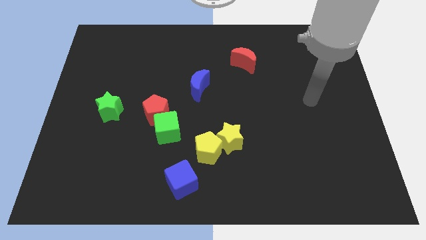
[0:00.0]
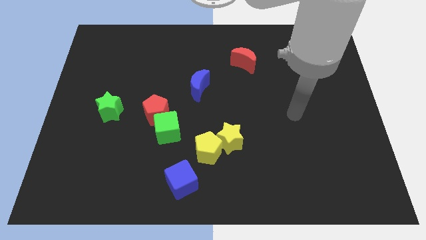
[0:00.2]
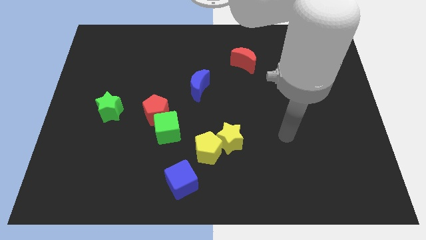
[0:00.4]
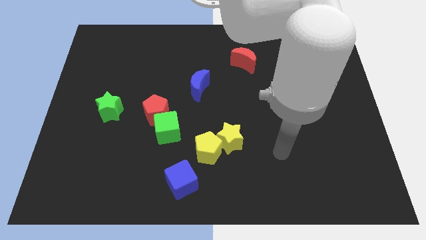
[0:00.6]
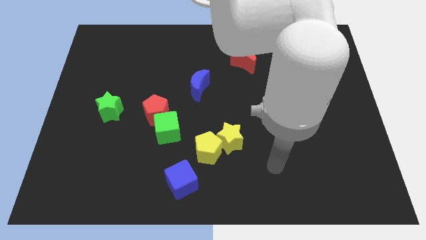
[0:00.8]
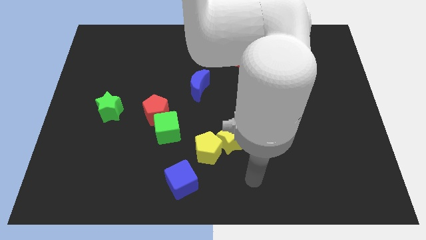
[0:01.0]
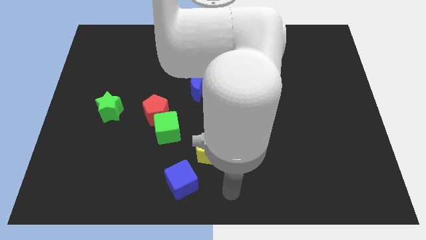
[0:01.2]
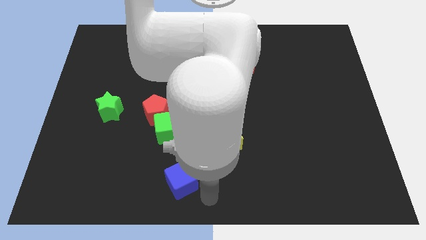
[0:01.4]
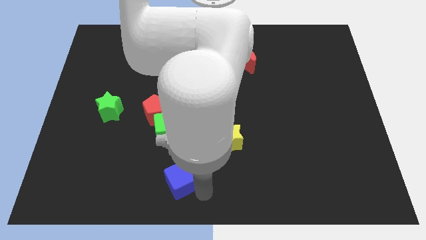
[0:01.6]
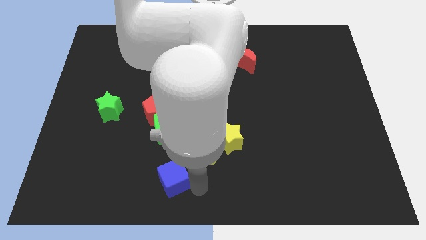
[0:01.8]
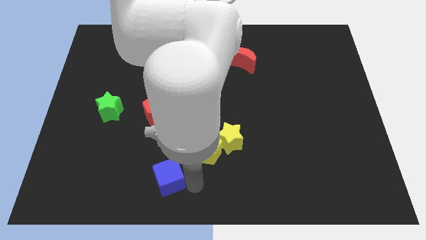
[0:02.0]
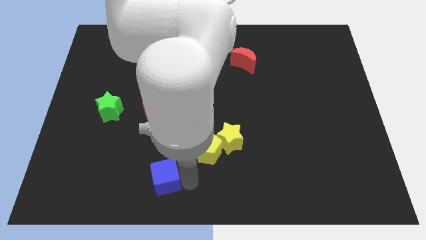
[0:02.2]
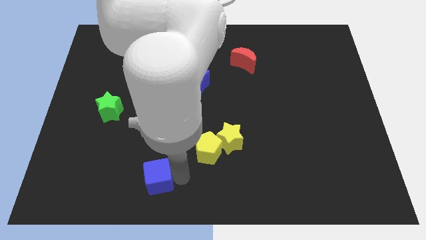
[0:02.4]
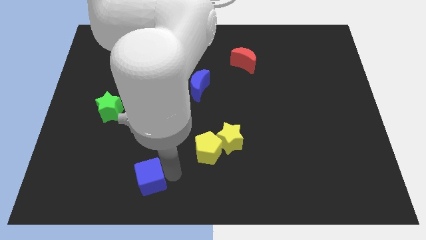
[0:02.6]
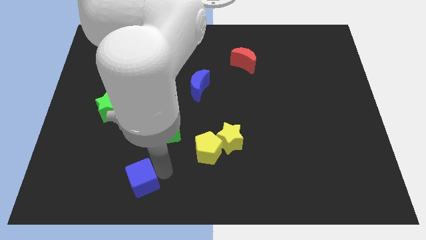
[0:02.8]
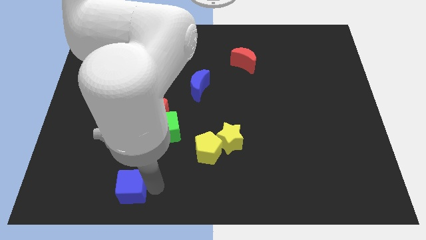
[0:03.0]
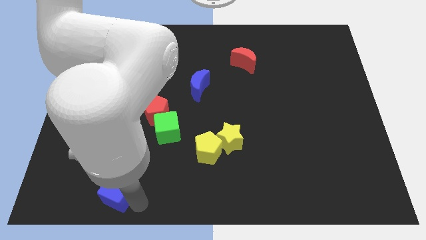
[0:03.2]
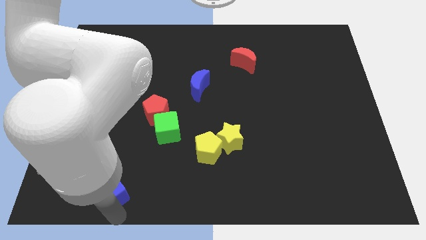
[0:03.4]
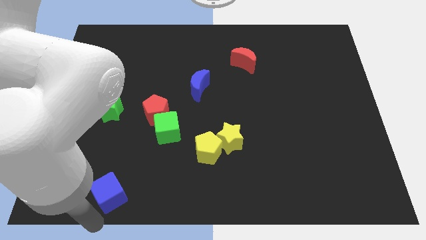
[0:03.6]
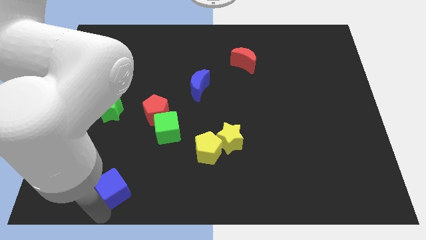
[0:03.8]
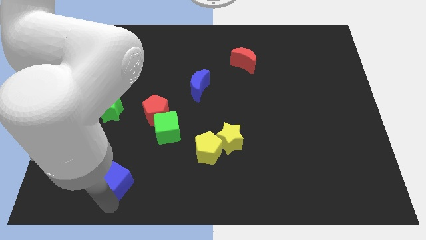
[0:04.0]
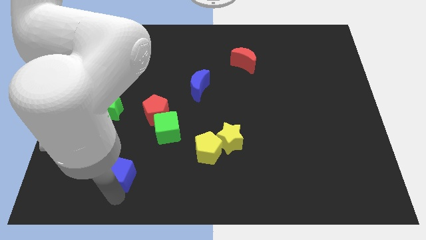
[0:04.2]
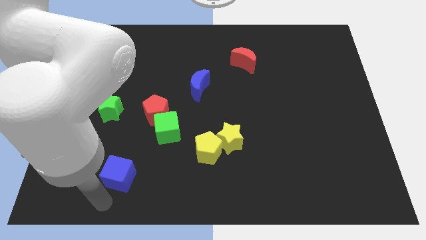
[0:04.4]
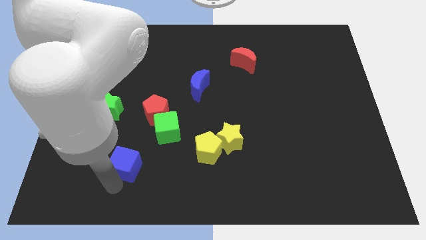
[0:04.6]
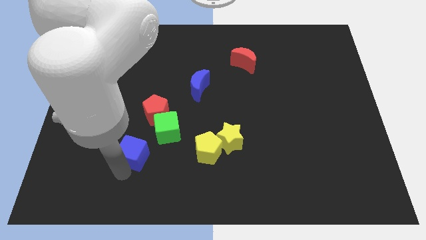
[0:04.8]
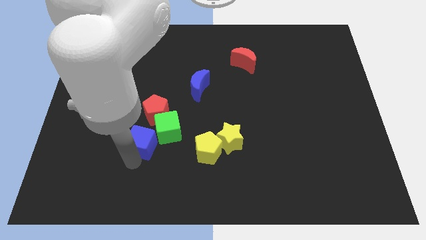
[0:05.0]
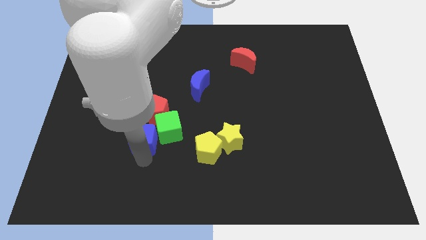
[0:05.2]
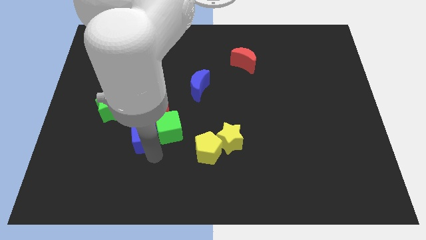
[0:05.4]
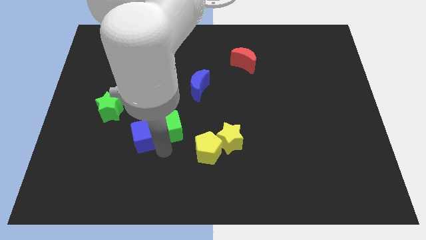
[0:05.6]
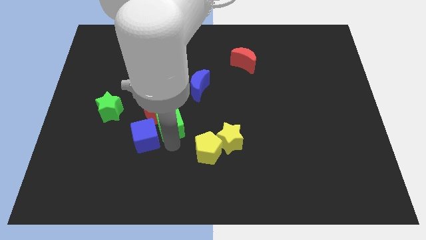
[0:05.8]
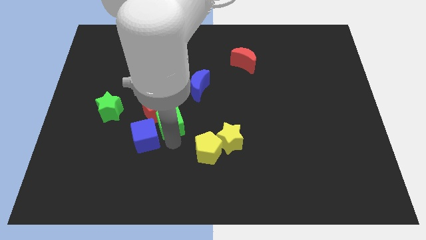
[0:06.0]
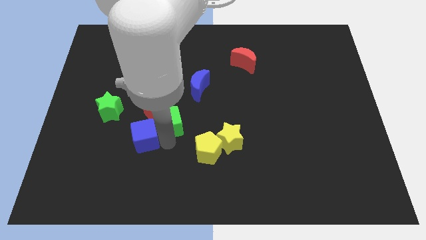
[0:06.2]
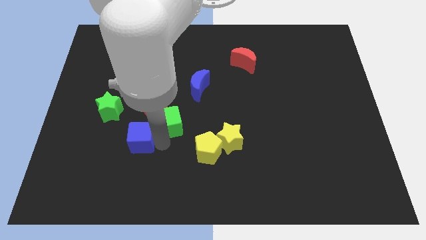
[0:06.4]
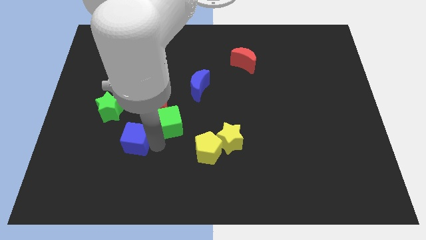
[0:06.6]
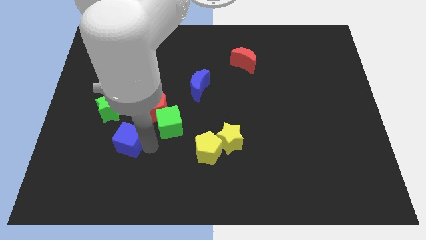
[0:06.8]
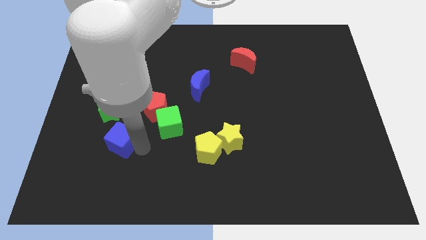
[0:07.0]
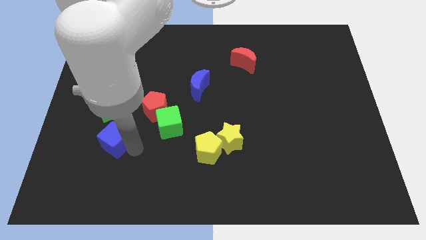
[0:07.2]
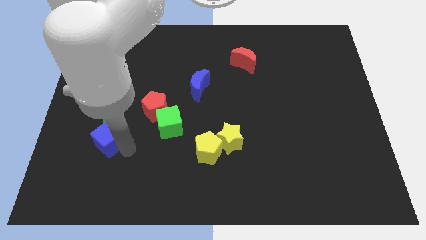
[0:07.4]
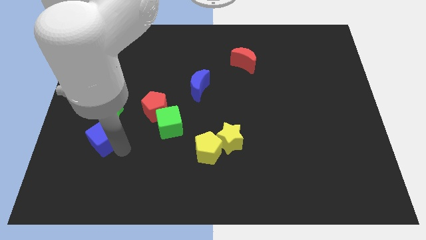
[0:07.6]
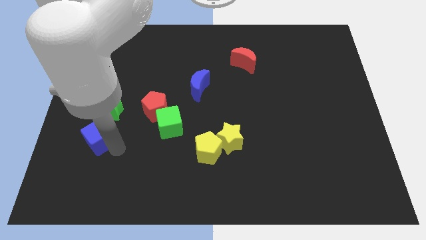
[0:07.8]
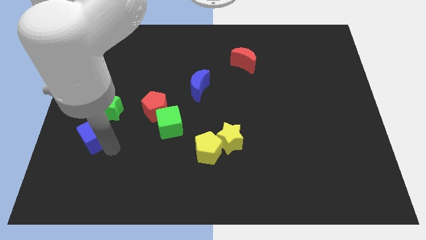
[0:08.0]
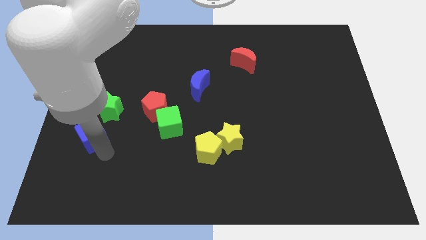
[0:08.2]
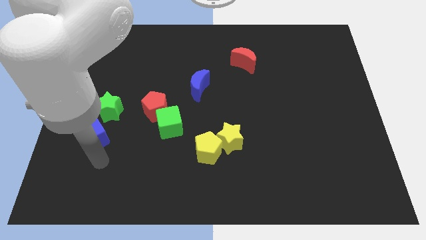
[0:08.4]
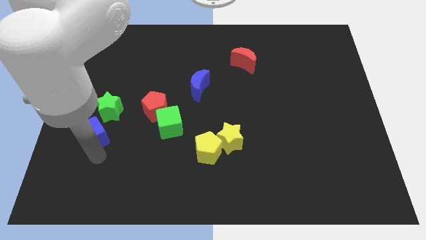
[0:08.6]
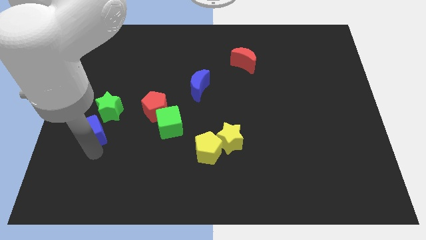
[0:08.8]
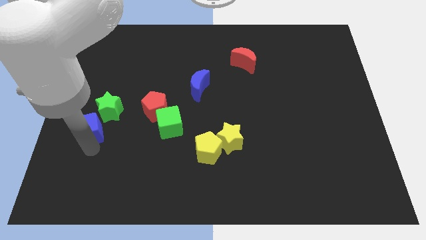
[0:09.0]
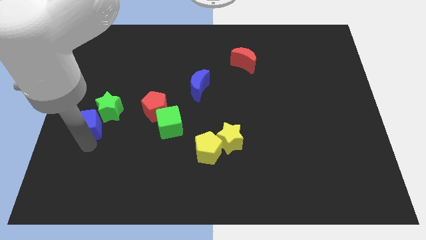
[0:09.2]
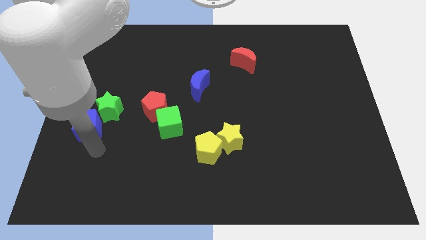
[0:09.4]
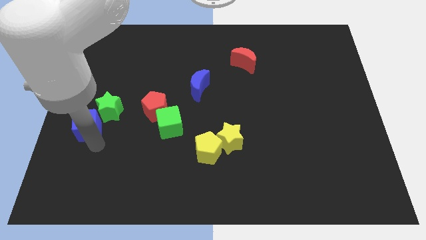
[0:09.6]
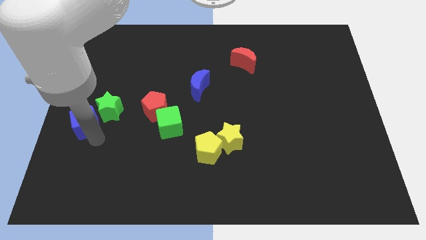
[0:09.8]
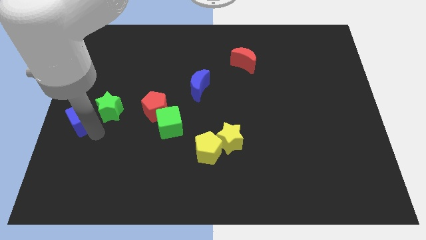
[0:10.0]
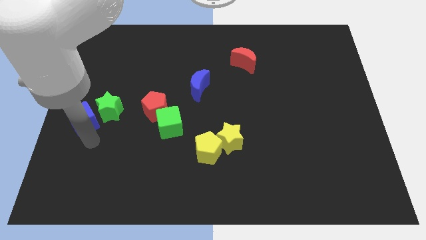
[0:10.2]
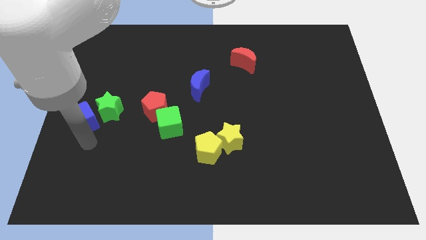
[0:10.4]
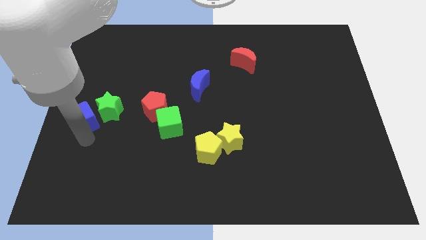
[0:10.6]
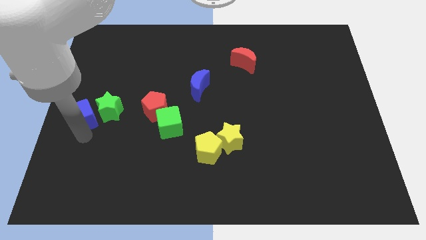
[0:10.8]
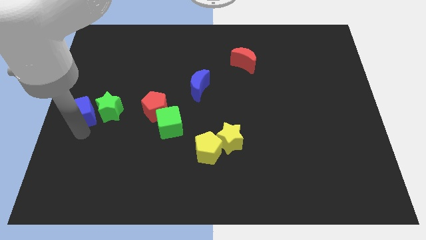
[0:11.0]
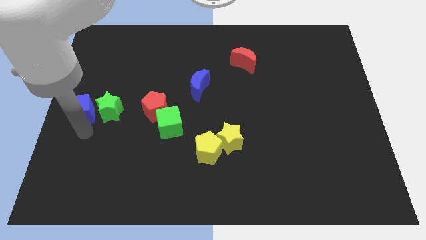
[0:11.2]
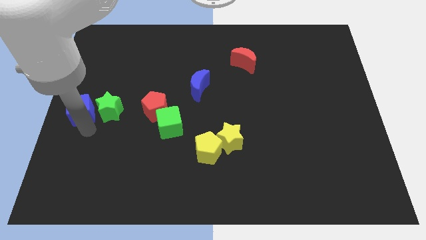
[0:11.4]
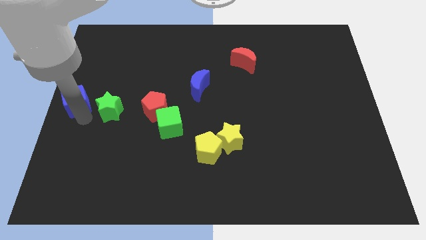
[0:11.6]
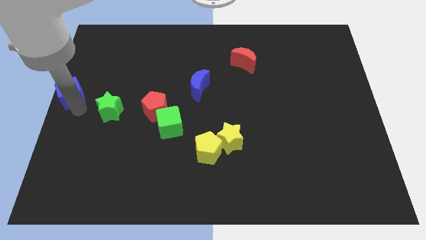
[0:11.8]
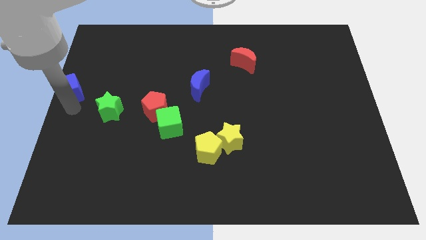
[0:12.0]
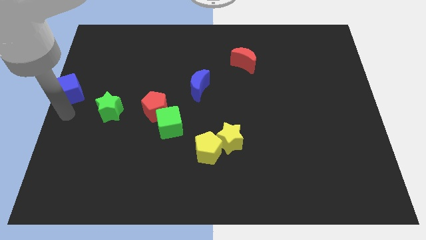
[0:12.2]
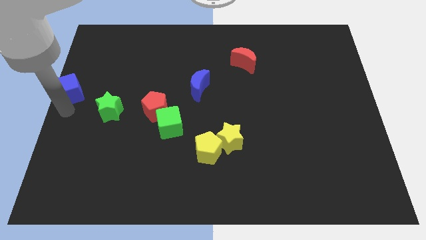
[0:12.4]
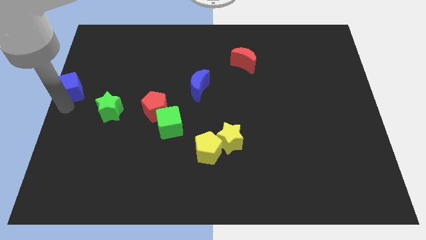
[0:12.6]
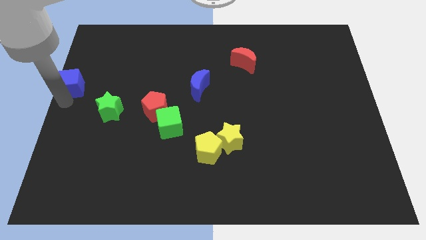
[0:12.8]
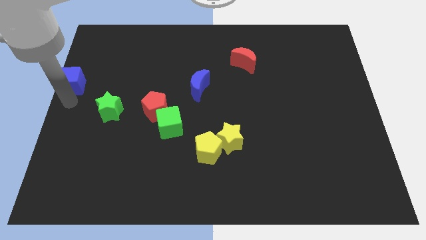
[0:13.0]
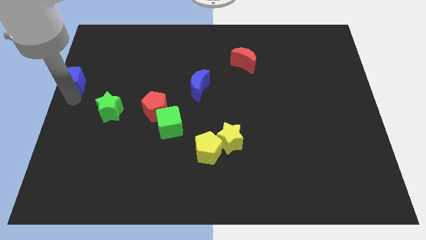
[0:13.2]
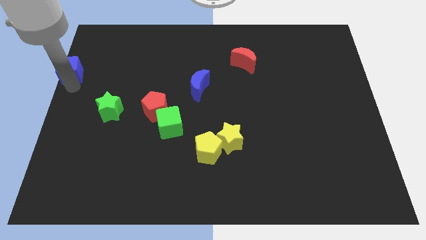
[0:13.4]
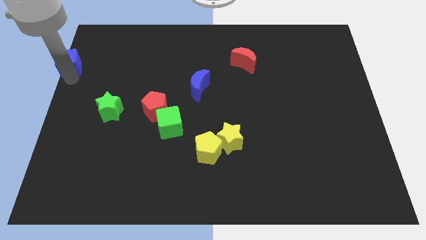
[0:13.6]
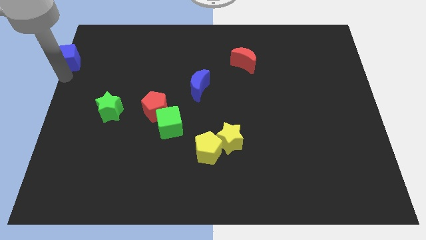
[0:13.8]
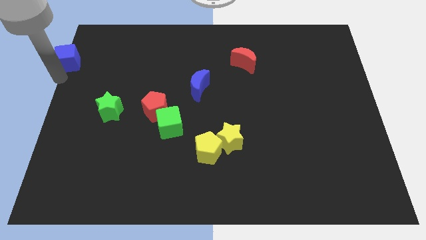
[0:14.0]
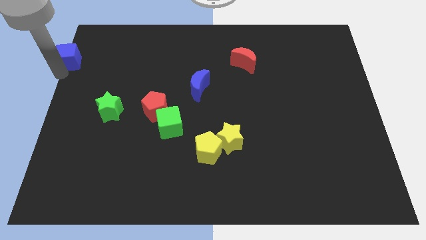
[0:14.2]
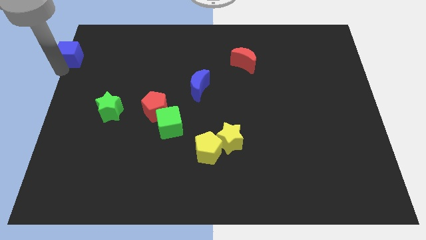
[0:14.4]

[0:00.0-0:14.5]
slide the blue cube to the top left of the board

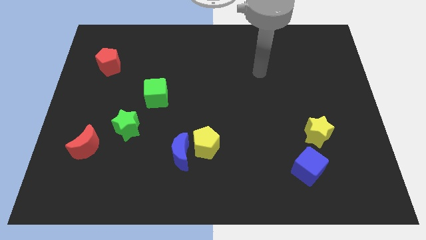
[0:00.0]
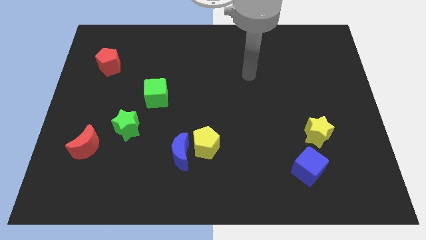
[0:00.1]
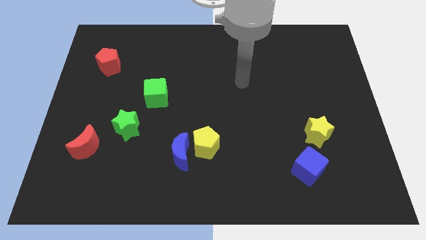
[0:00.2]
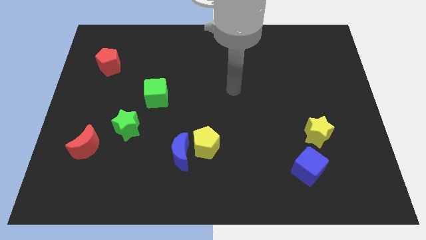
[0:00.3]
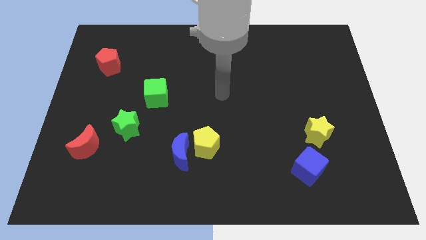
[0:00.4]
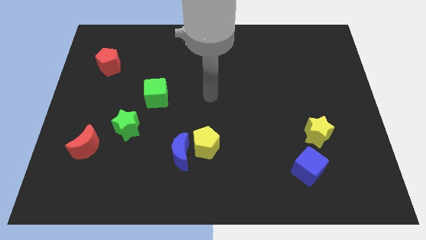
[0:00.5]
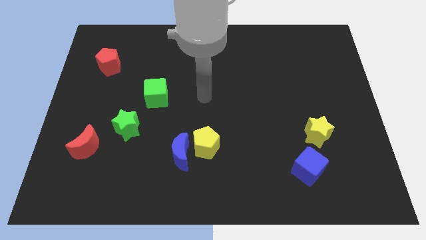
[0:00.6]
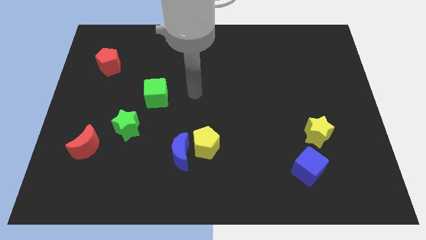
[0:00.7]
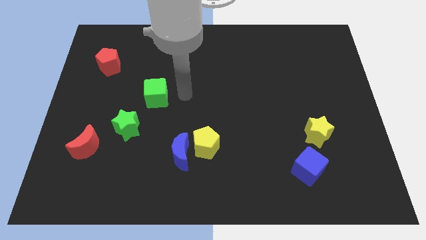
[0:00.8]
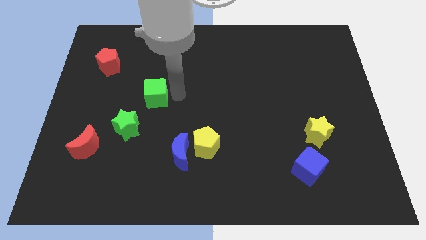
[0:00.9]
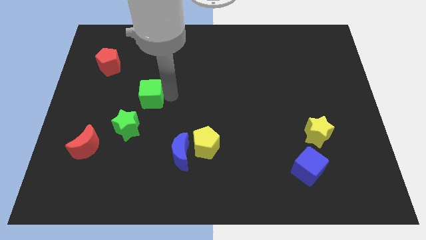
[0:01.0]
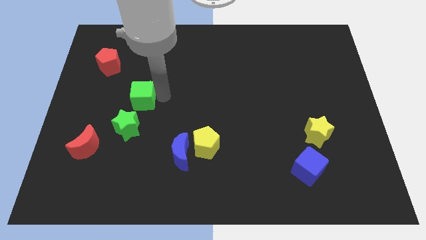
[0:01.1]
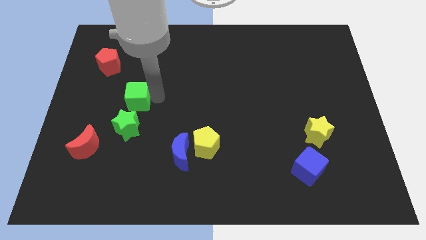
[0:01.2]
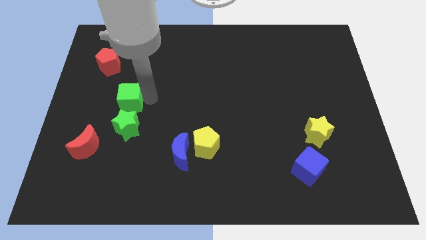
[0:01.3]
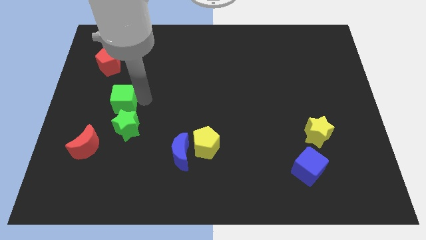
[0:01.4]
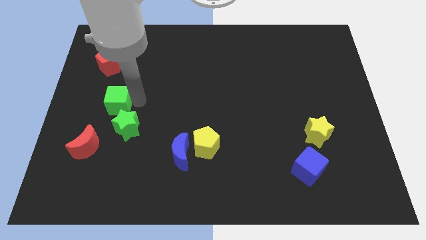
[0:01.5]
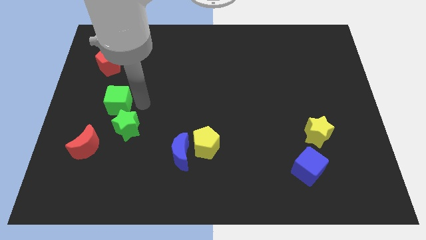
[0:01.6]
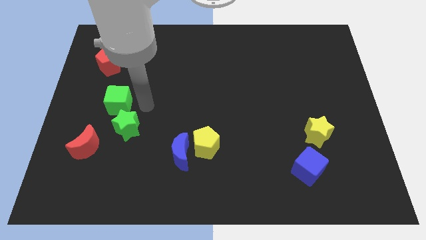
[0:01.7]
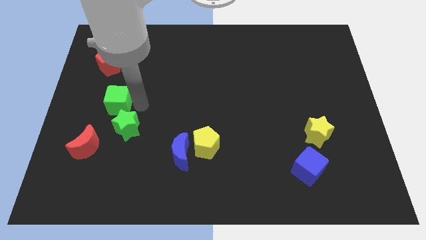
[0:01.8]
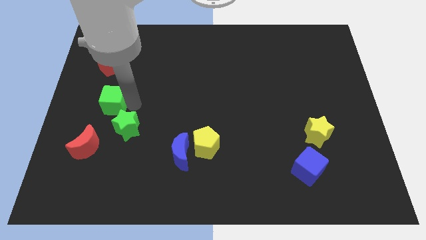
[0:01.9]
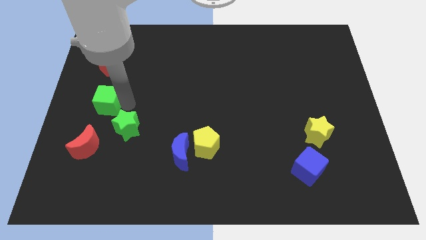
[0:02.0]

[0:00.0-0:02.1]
slide the green cube to the left side of the board
